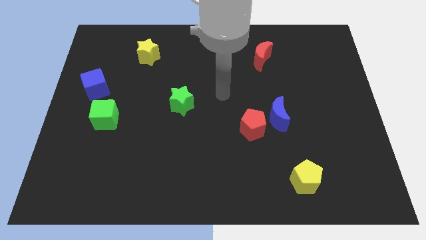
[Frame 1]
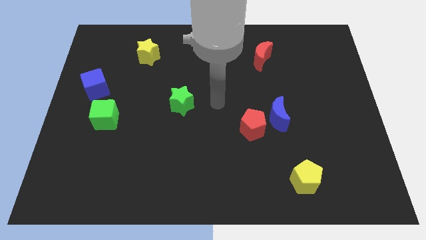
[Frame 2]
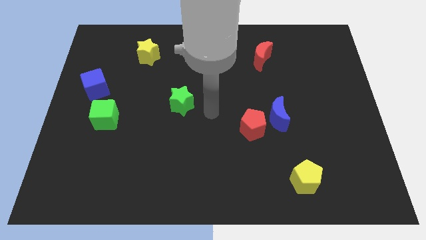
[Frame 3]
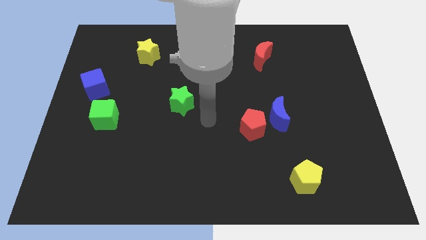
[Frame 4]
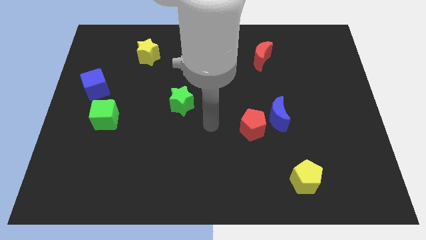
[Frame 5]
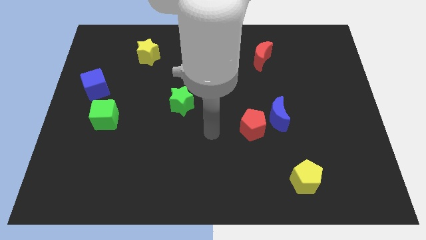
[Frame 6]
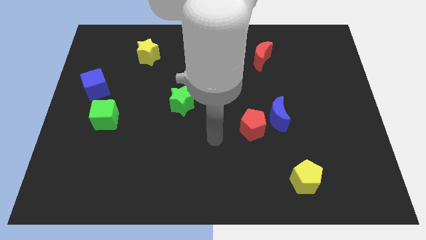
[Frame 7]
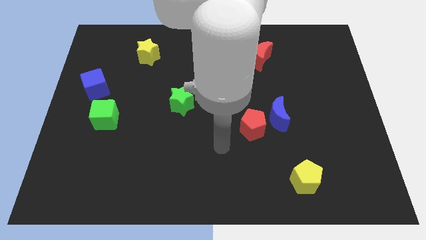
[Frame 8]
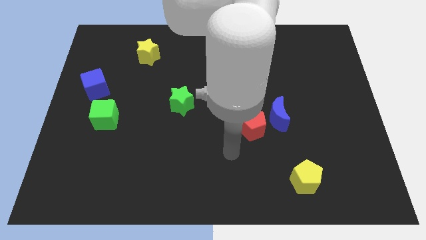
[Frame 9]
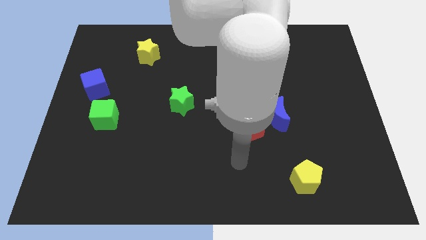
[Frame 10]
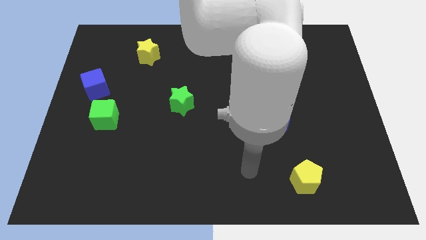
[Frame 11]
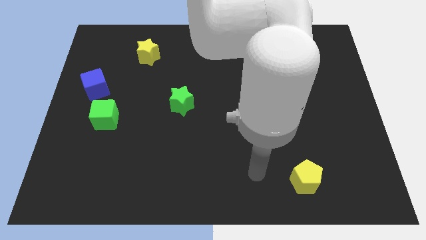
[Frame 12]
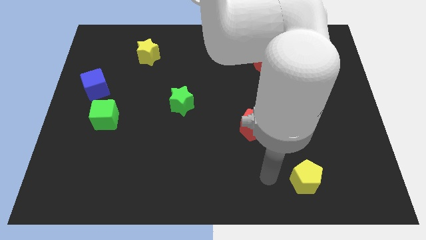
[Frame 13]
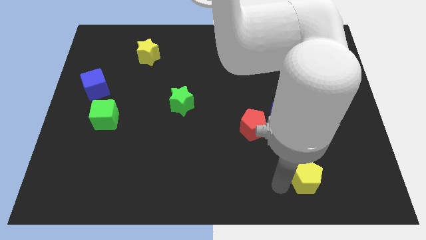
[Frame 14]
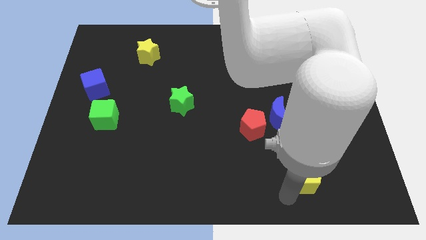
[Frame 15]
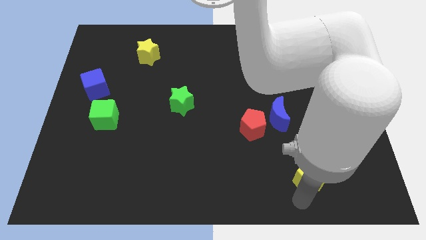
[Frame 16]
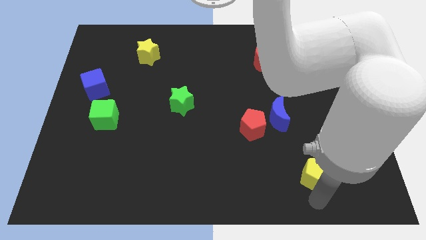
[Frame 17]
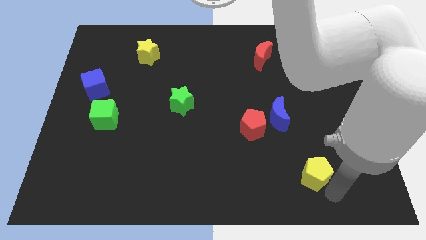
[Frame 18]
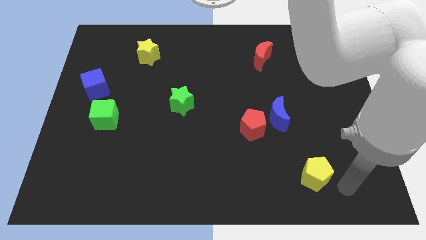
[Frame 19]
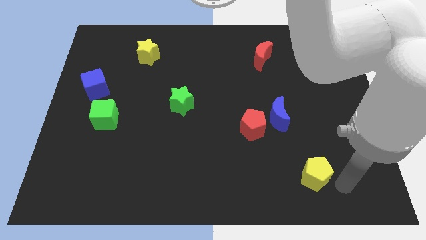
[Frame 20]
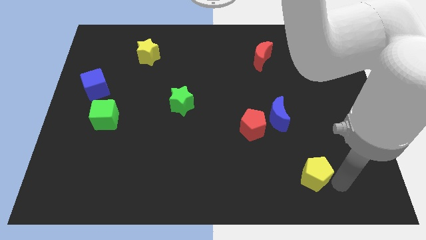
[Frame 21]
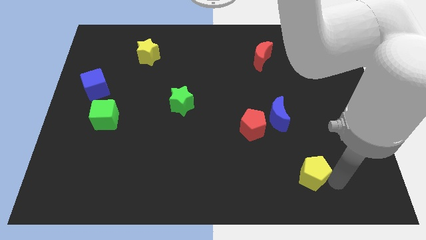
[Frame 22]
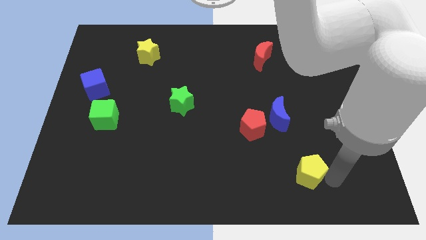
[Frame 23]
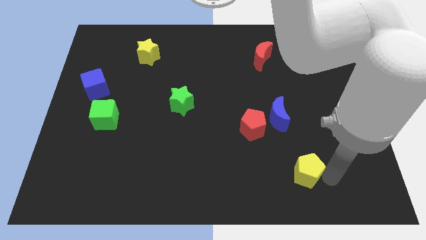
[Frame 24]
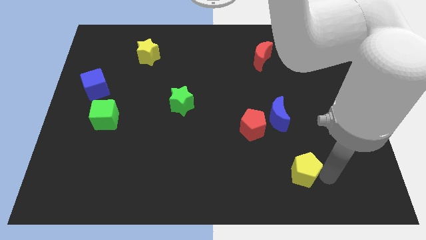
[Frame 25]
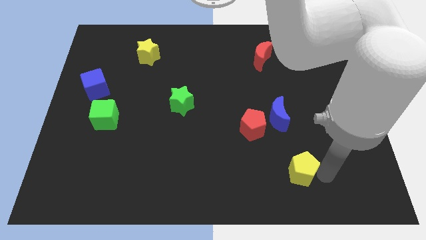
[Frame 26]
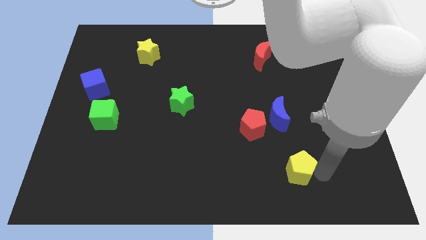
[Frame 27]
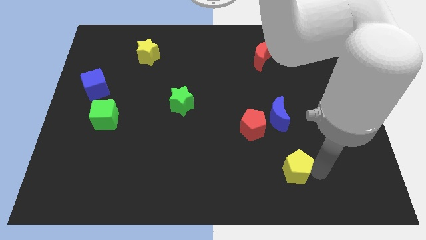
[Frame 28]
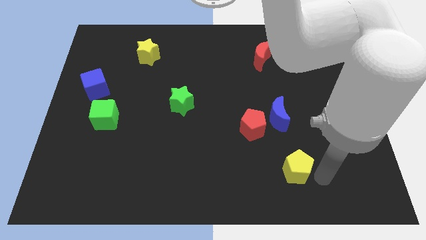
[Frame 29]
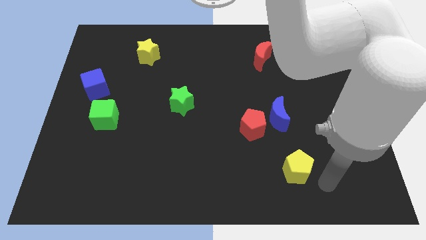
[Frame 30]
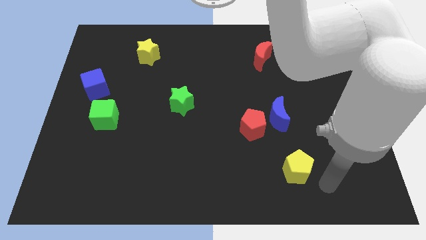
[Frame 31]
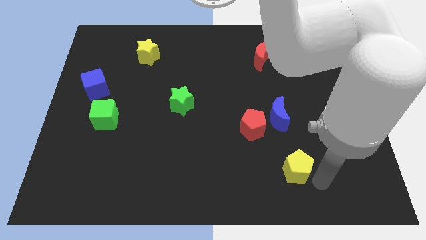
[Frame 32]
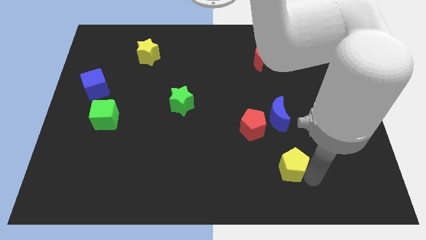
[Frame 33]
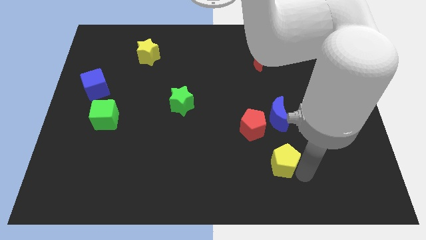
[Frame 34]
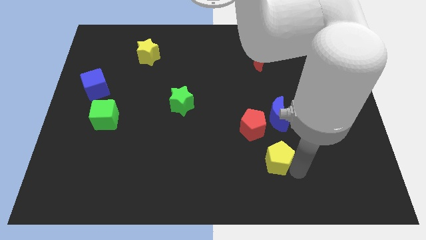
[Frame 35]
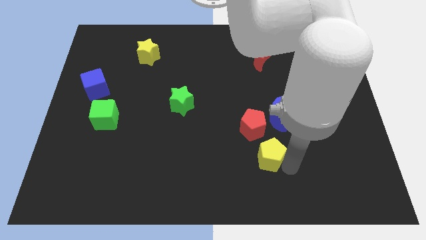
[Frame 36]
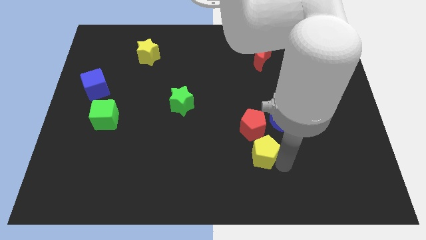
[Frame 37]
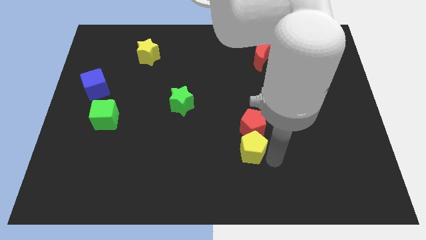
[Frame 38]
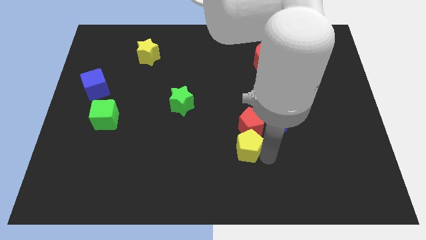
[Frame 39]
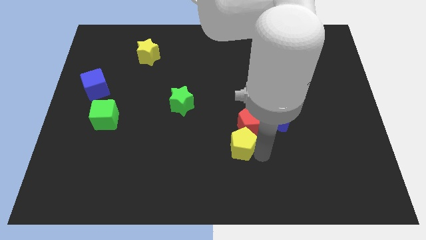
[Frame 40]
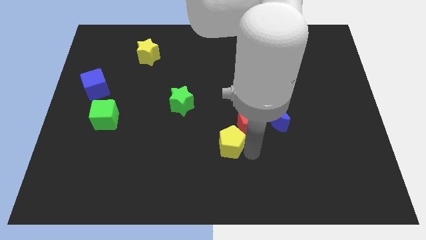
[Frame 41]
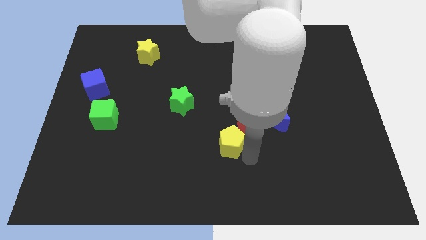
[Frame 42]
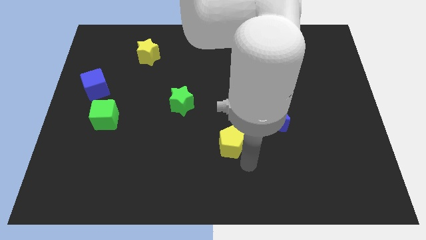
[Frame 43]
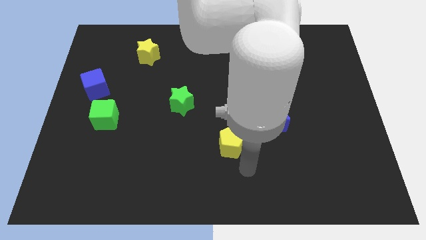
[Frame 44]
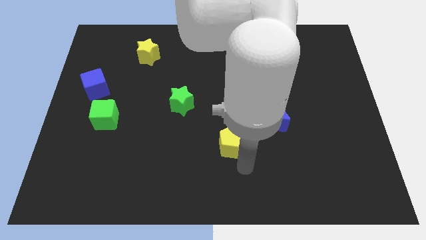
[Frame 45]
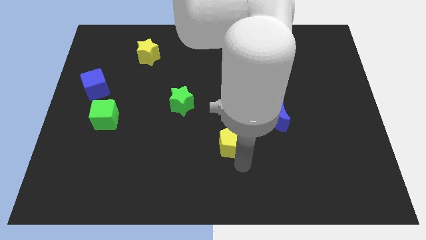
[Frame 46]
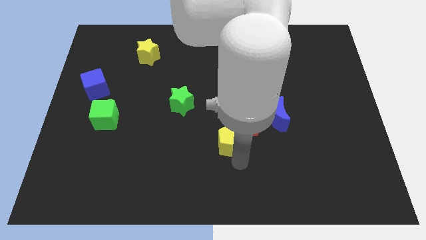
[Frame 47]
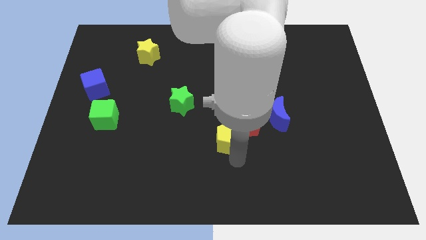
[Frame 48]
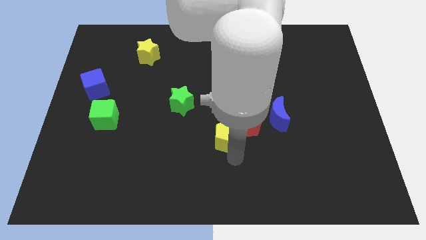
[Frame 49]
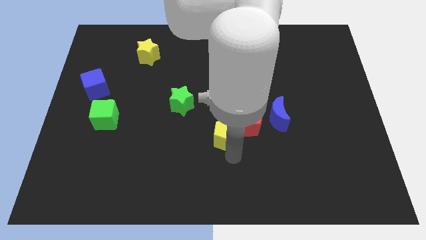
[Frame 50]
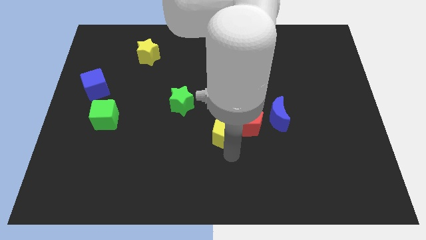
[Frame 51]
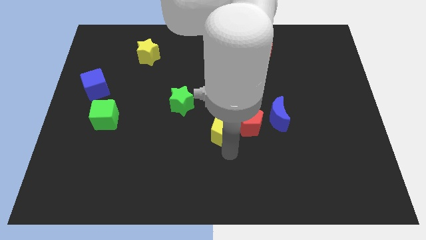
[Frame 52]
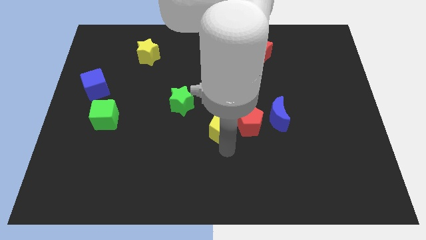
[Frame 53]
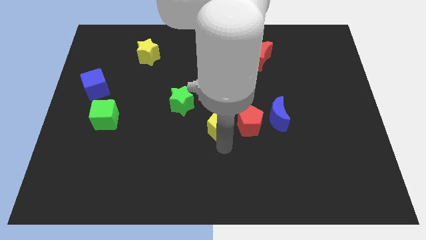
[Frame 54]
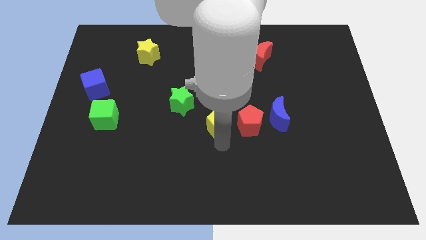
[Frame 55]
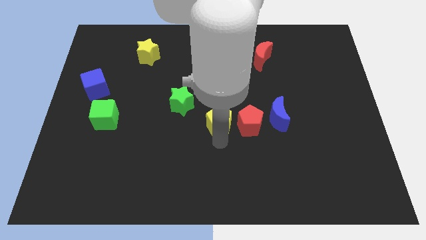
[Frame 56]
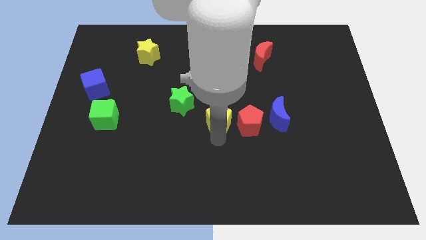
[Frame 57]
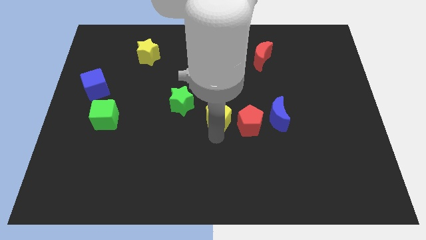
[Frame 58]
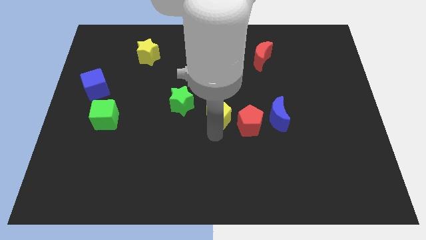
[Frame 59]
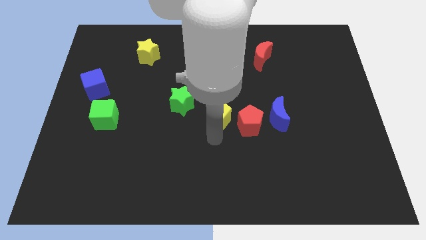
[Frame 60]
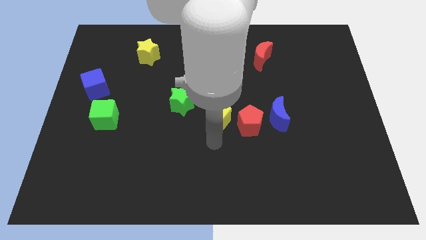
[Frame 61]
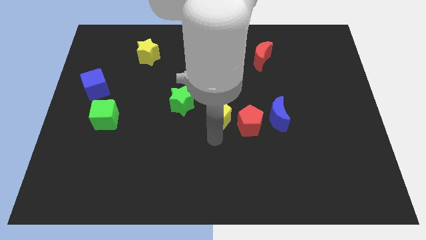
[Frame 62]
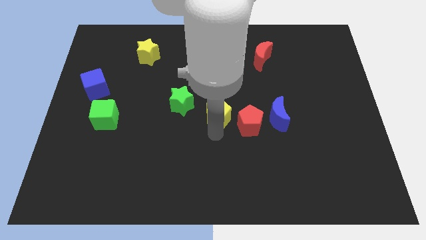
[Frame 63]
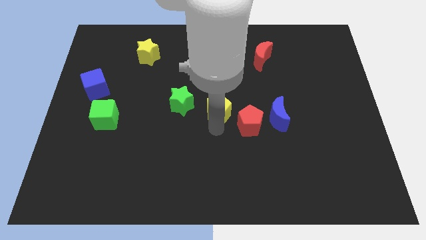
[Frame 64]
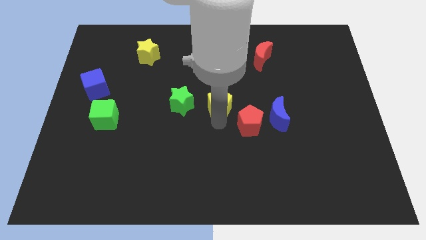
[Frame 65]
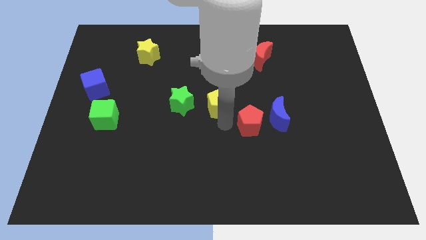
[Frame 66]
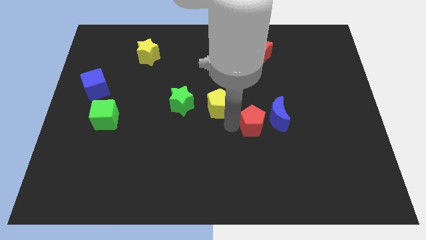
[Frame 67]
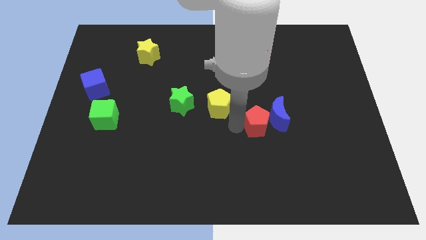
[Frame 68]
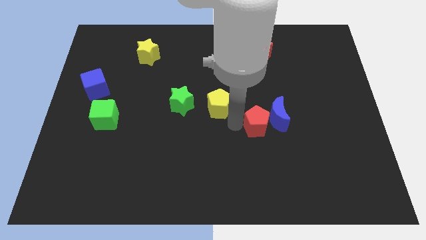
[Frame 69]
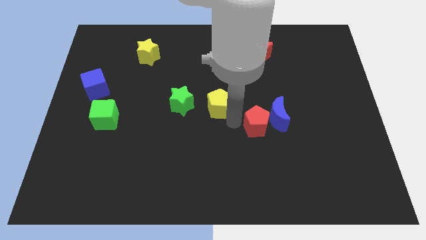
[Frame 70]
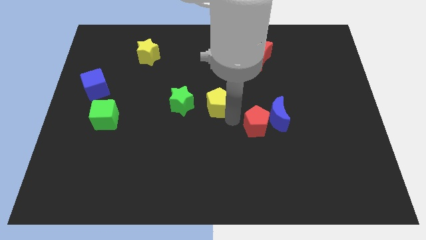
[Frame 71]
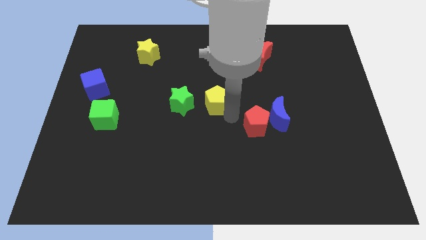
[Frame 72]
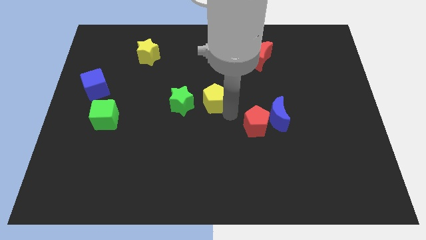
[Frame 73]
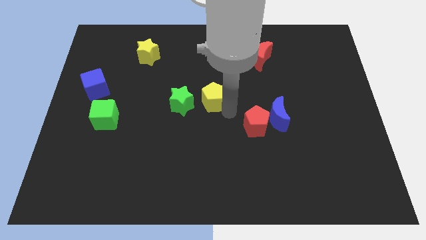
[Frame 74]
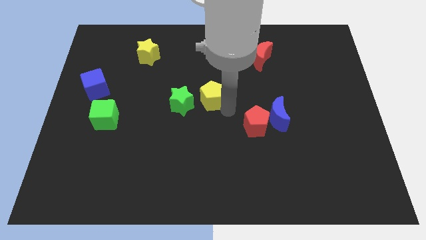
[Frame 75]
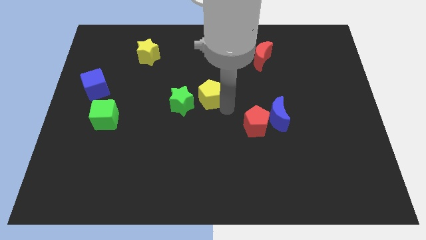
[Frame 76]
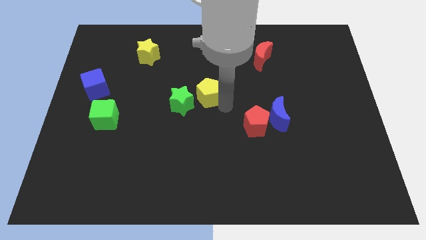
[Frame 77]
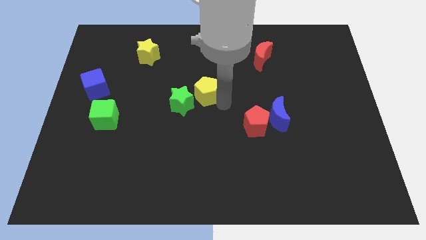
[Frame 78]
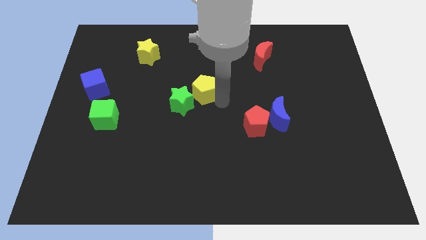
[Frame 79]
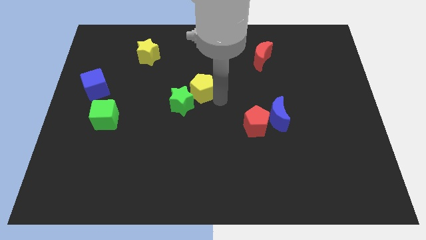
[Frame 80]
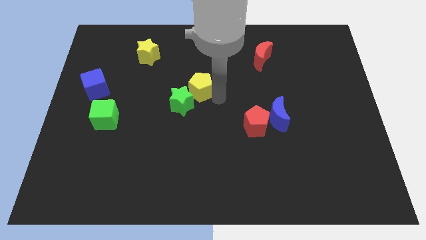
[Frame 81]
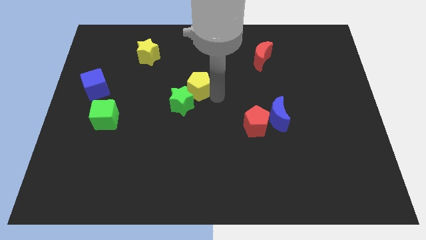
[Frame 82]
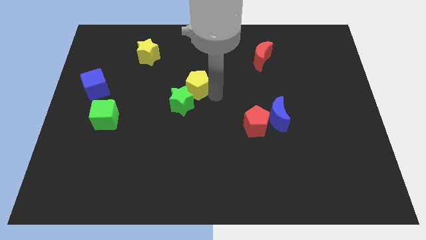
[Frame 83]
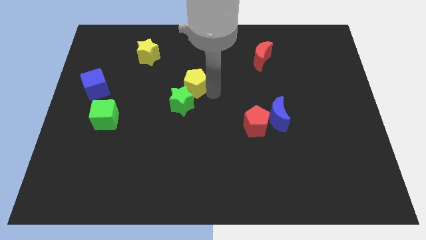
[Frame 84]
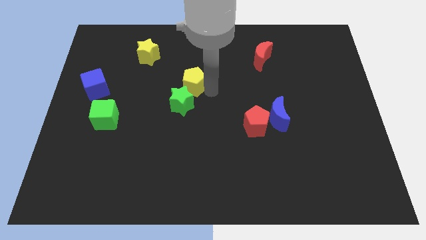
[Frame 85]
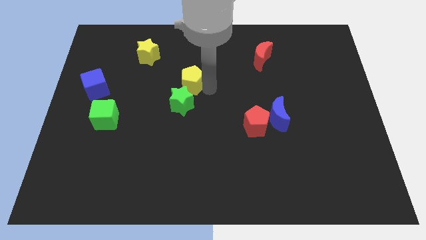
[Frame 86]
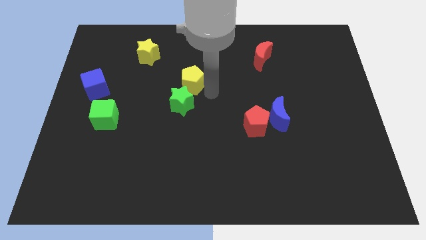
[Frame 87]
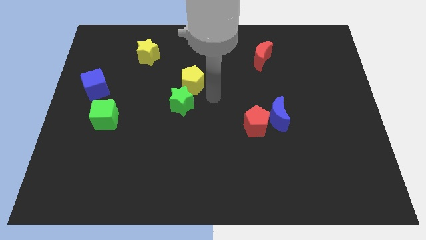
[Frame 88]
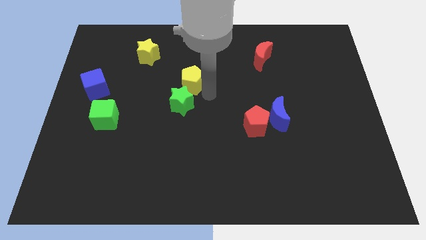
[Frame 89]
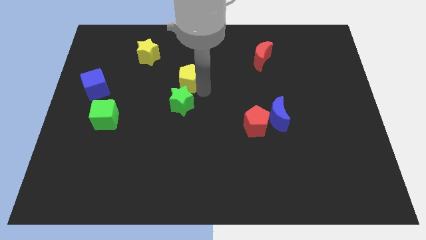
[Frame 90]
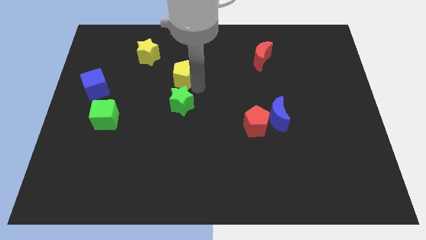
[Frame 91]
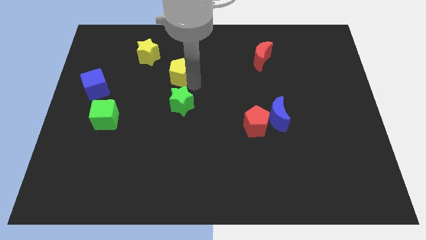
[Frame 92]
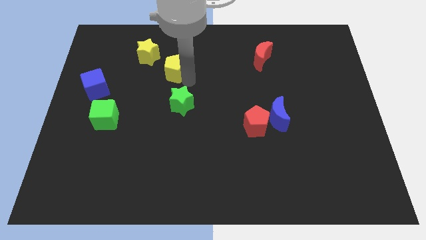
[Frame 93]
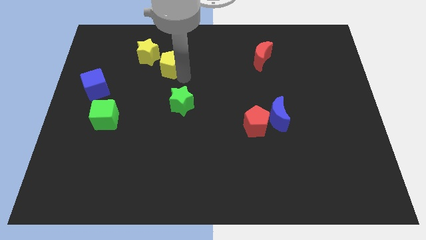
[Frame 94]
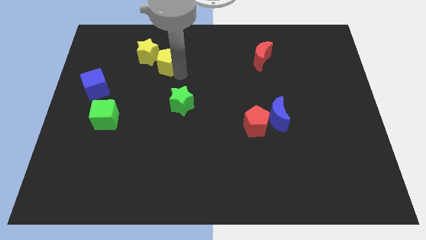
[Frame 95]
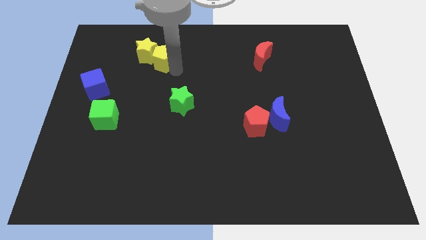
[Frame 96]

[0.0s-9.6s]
put the yellow pentagon next to the yellow star
